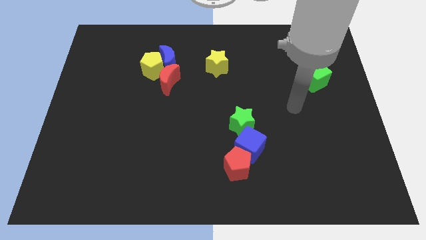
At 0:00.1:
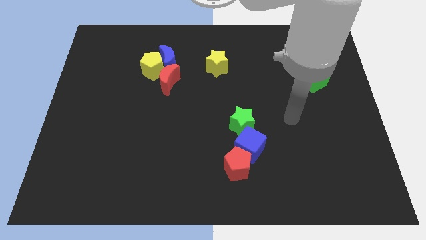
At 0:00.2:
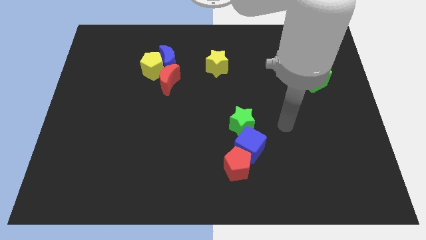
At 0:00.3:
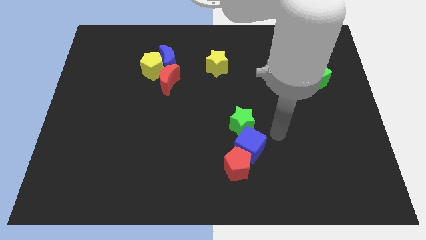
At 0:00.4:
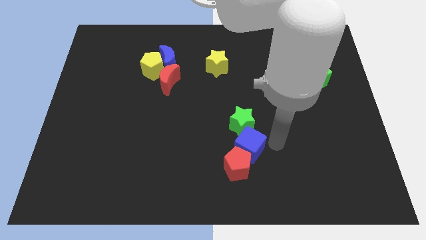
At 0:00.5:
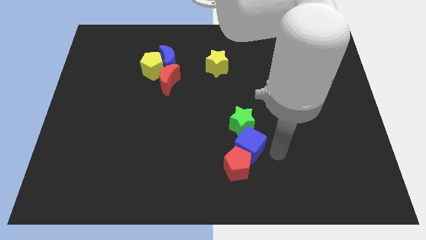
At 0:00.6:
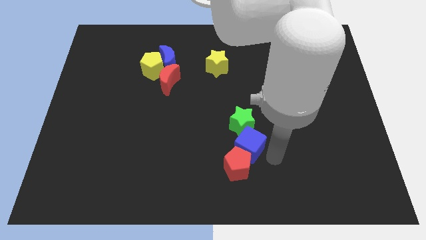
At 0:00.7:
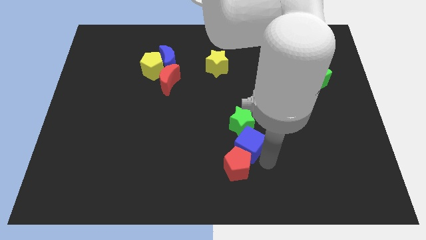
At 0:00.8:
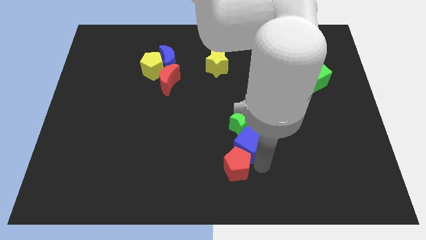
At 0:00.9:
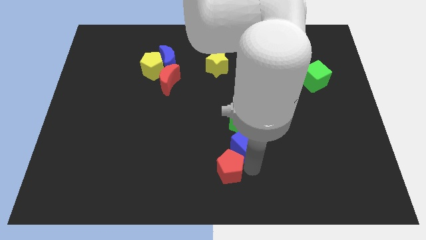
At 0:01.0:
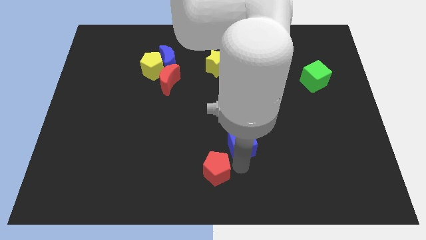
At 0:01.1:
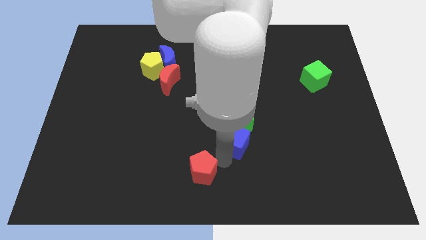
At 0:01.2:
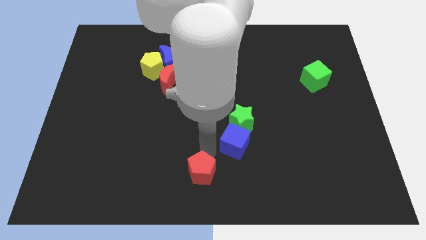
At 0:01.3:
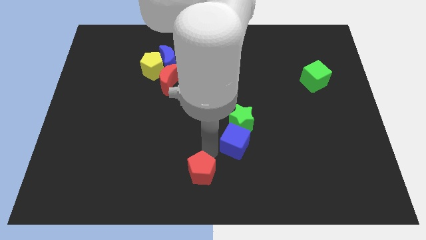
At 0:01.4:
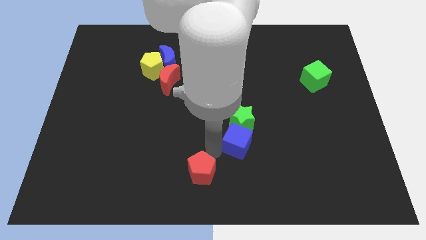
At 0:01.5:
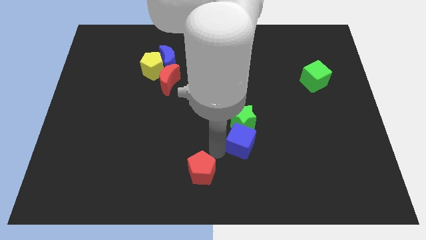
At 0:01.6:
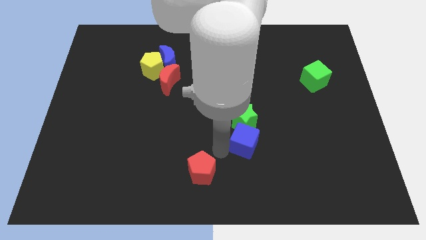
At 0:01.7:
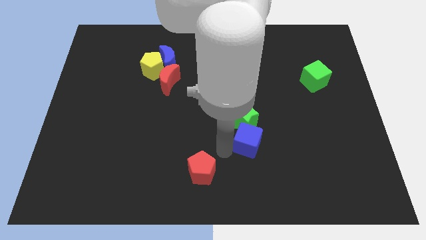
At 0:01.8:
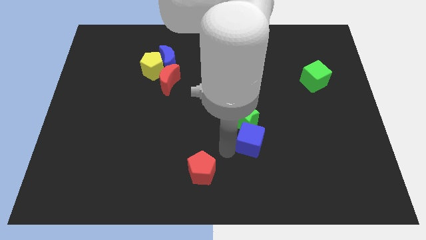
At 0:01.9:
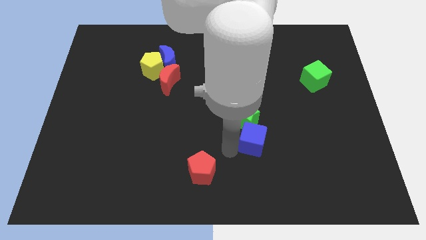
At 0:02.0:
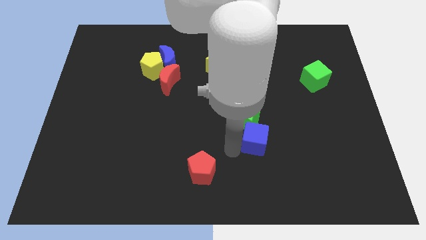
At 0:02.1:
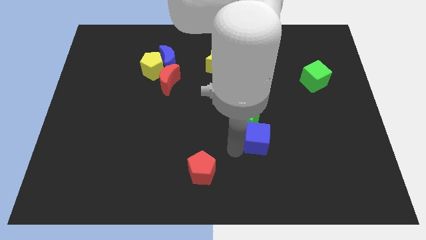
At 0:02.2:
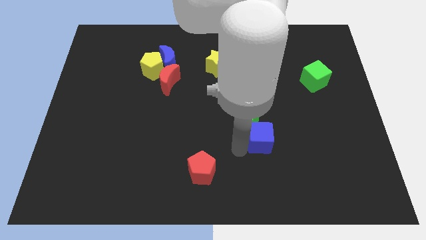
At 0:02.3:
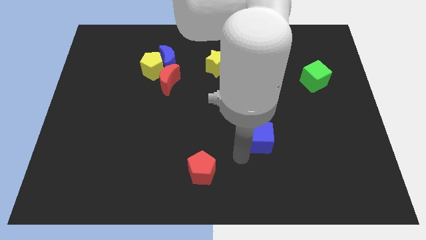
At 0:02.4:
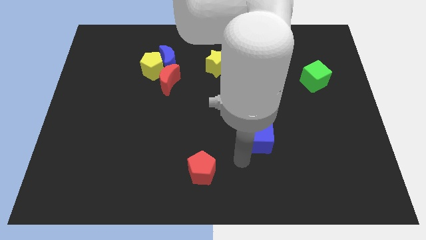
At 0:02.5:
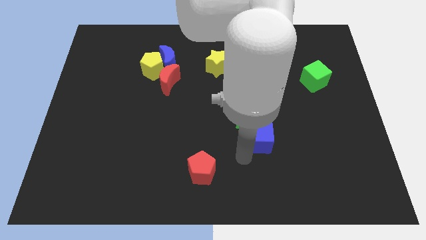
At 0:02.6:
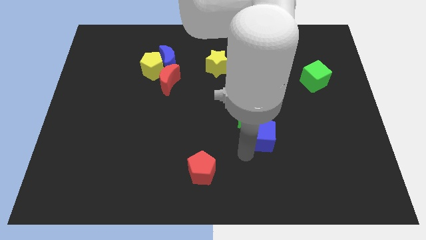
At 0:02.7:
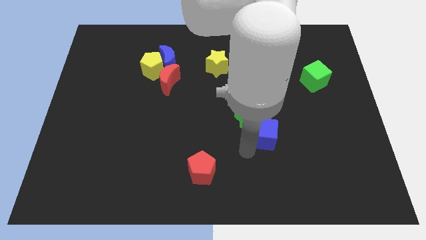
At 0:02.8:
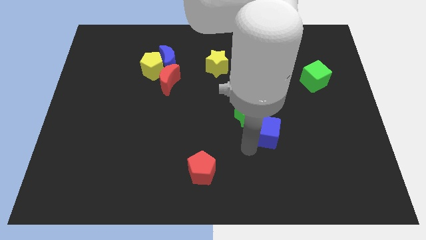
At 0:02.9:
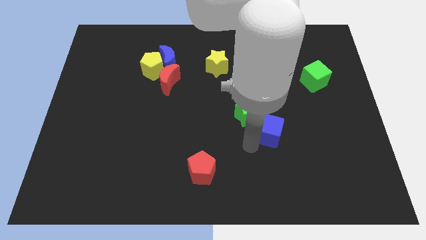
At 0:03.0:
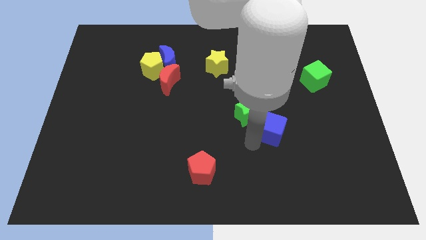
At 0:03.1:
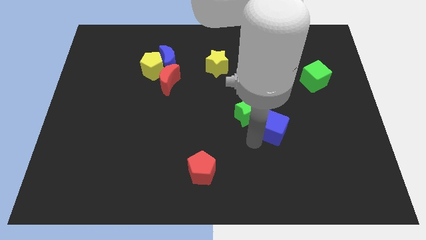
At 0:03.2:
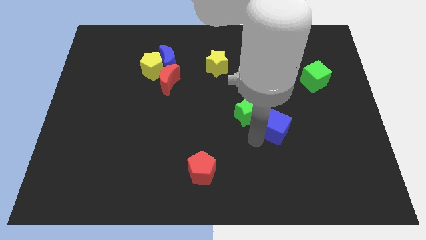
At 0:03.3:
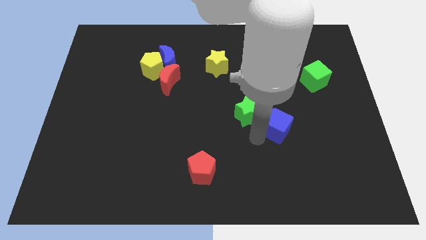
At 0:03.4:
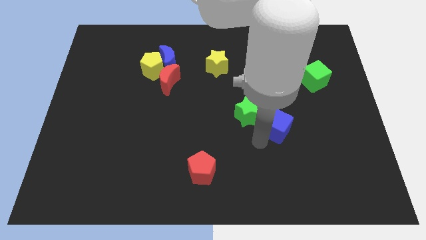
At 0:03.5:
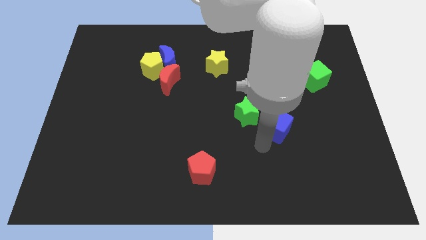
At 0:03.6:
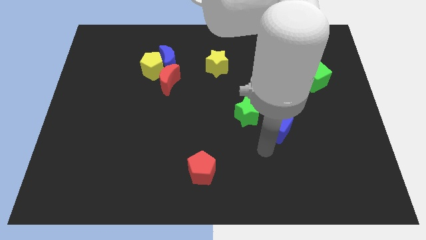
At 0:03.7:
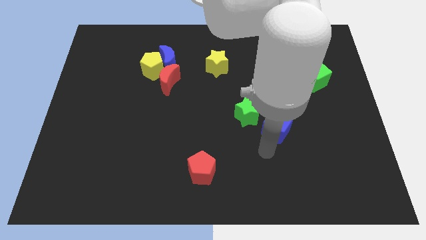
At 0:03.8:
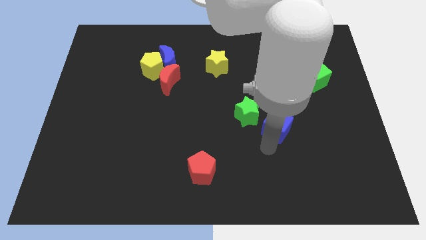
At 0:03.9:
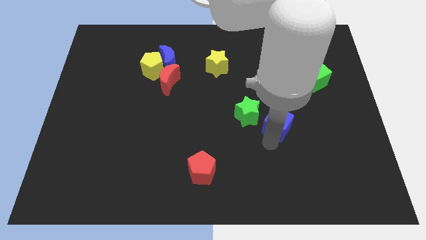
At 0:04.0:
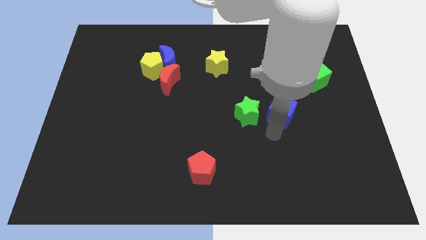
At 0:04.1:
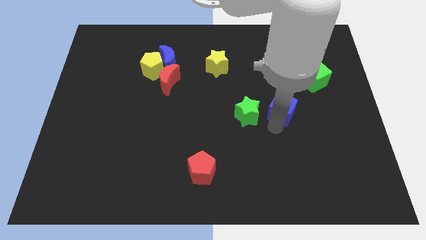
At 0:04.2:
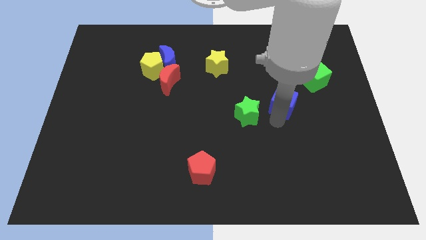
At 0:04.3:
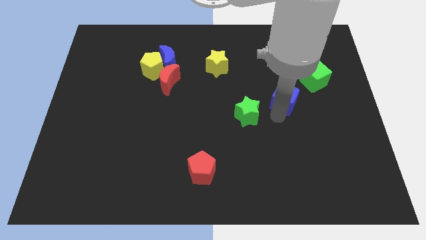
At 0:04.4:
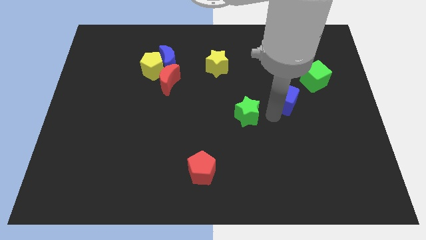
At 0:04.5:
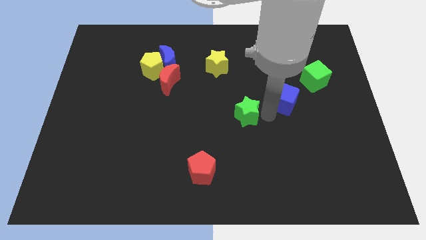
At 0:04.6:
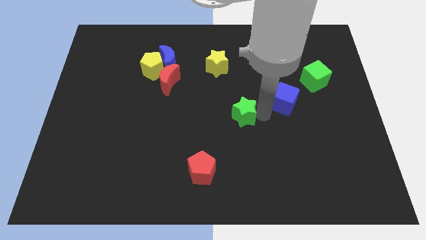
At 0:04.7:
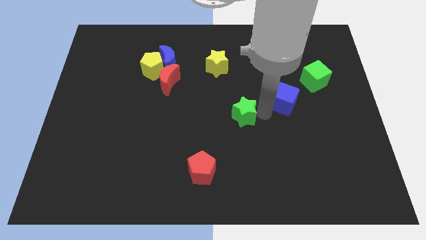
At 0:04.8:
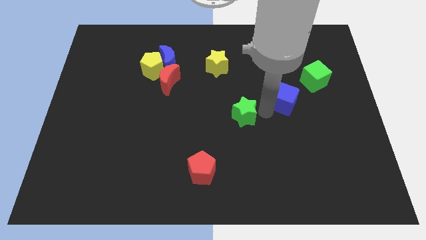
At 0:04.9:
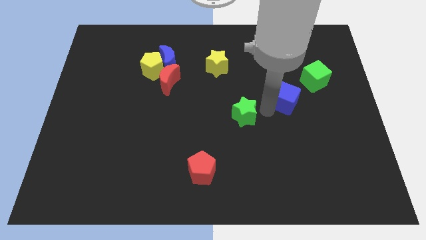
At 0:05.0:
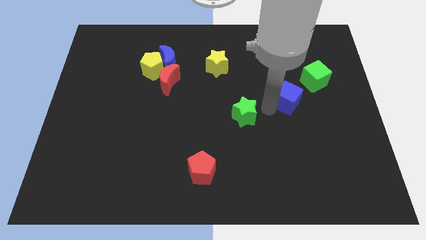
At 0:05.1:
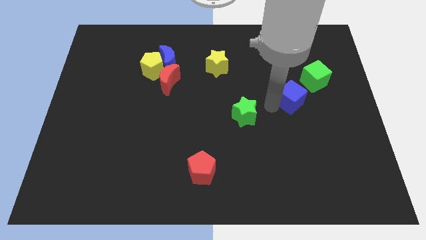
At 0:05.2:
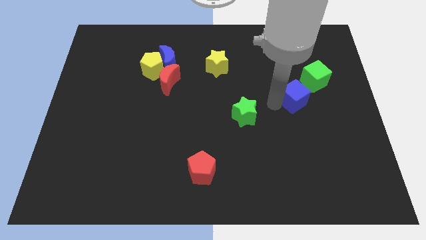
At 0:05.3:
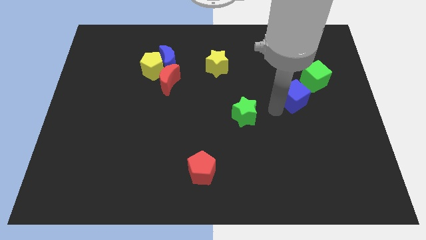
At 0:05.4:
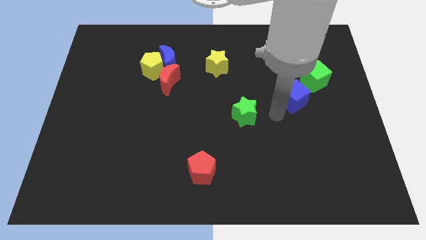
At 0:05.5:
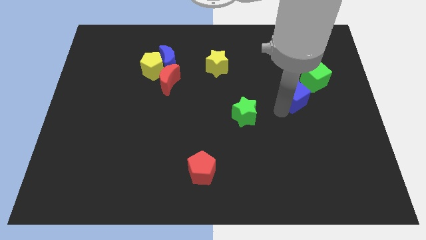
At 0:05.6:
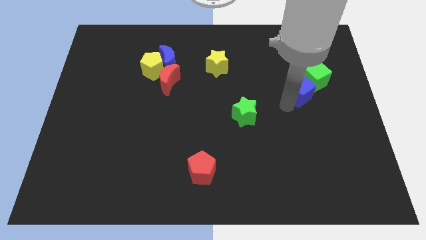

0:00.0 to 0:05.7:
slide the blue cube close to the green cube

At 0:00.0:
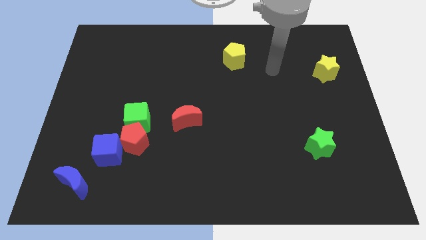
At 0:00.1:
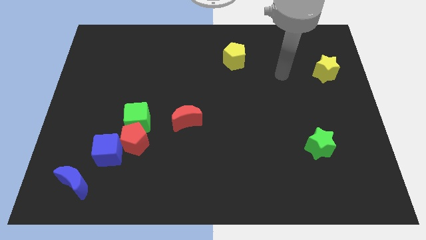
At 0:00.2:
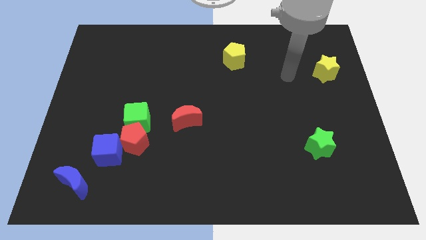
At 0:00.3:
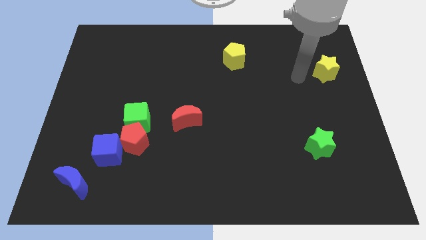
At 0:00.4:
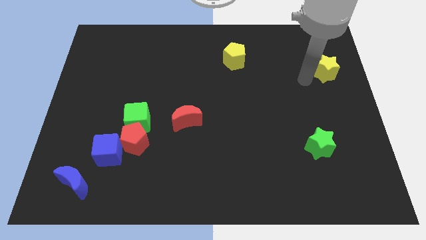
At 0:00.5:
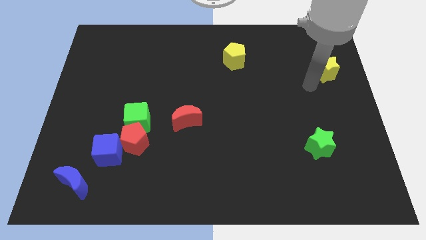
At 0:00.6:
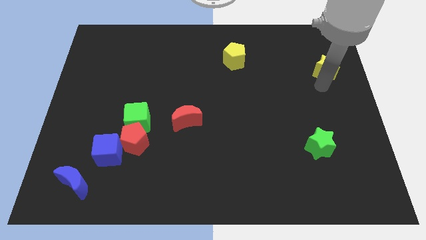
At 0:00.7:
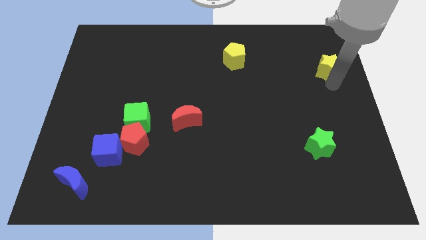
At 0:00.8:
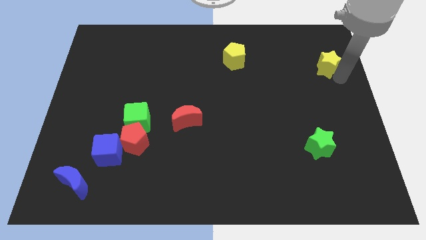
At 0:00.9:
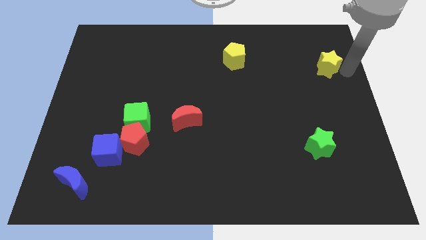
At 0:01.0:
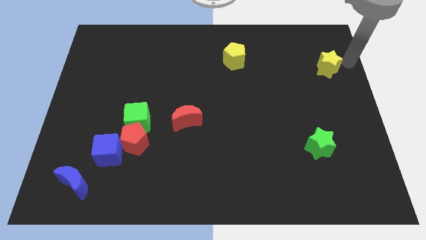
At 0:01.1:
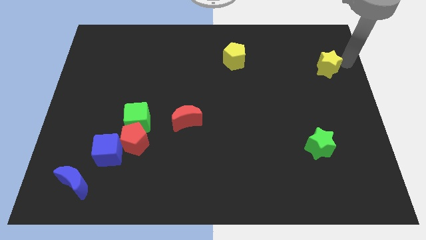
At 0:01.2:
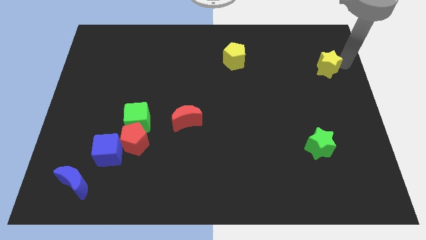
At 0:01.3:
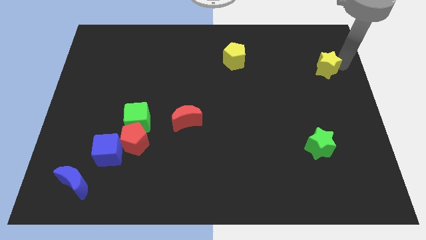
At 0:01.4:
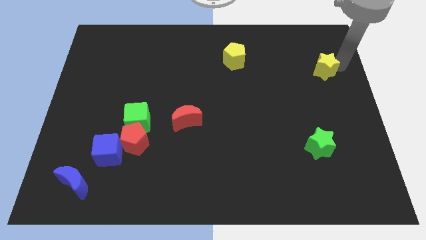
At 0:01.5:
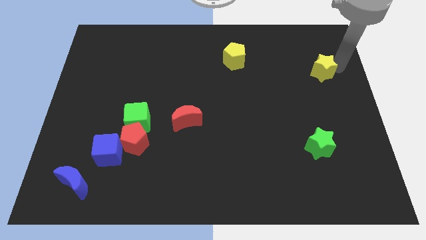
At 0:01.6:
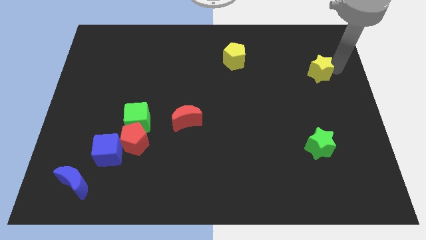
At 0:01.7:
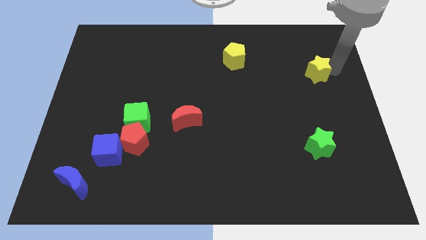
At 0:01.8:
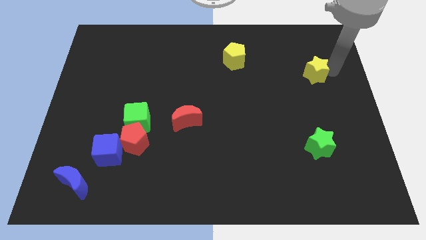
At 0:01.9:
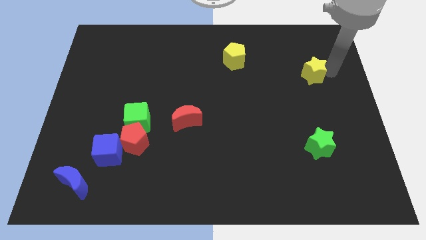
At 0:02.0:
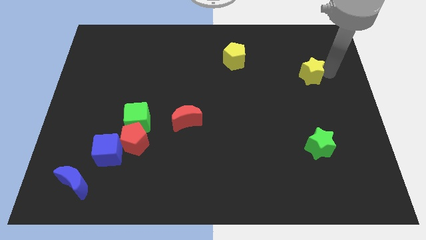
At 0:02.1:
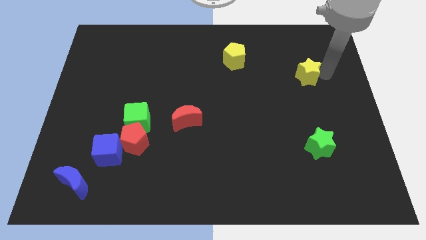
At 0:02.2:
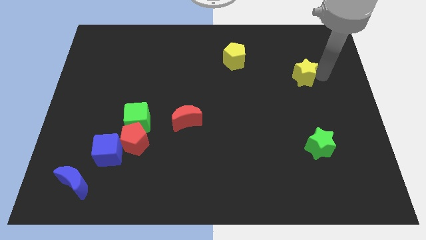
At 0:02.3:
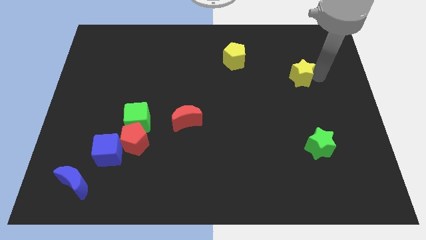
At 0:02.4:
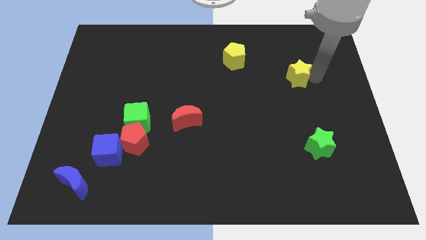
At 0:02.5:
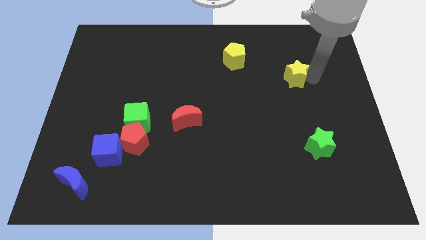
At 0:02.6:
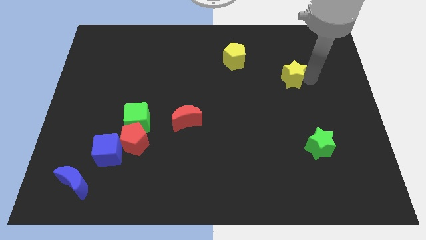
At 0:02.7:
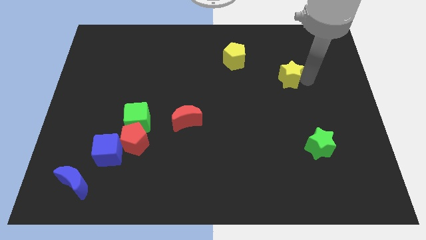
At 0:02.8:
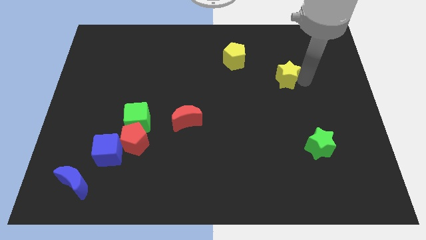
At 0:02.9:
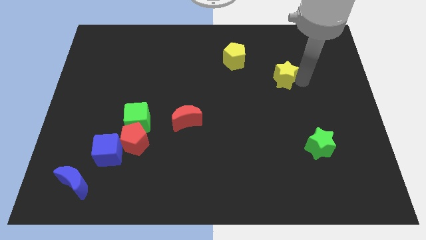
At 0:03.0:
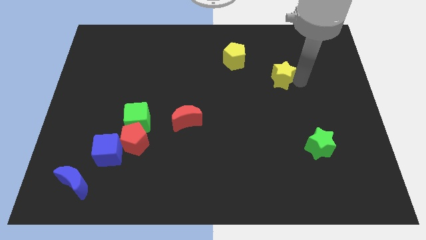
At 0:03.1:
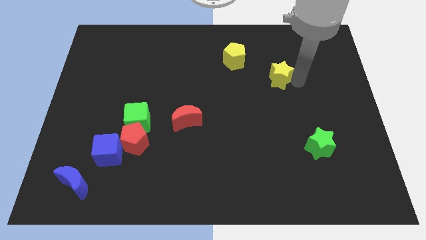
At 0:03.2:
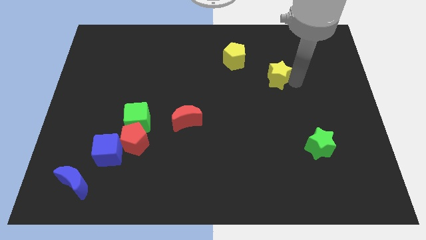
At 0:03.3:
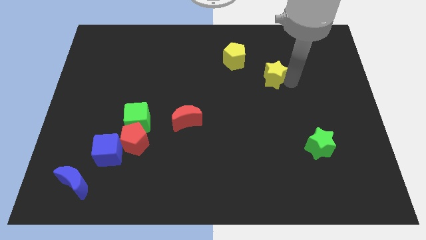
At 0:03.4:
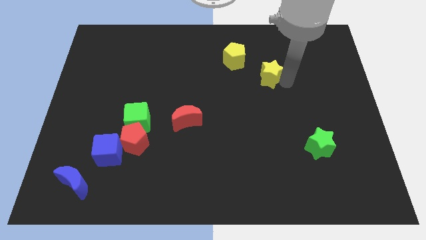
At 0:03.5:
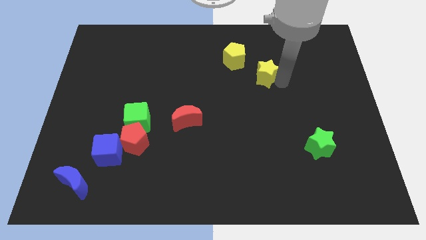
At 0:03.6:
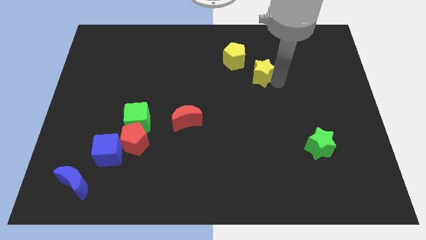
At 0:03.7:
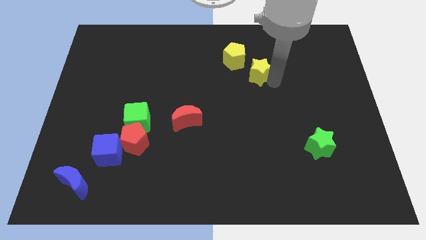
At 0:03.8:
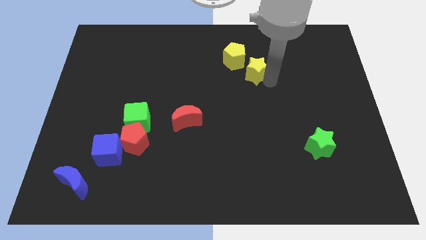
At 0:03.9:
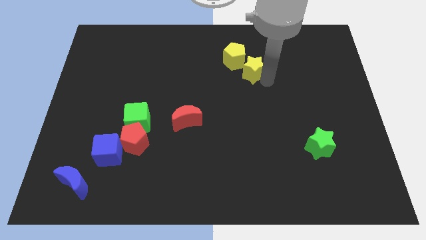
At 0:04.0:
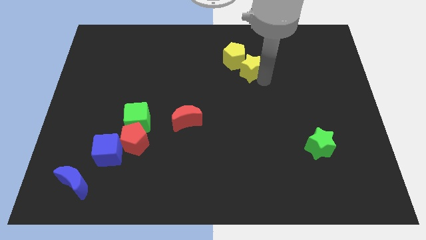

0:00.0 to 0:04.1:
put the yellow star next to the yellow pentagon
